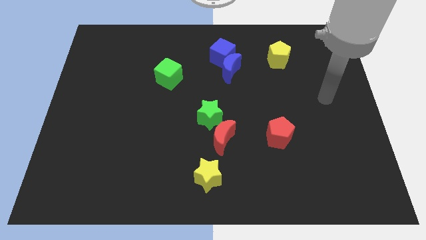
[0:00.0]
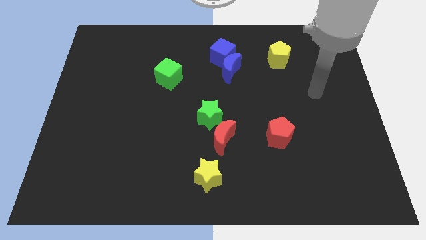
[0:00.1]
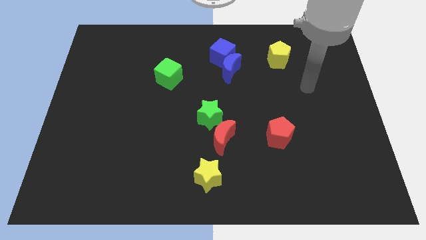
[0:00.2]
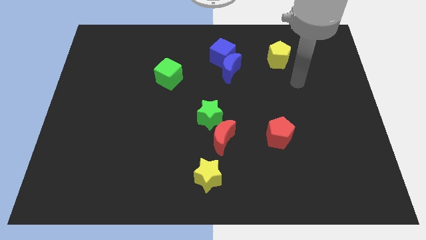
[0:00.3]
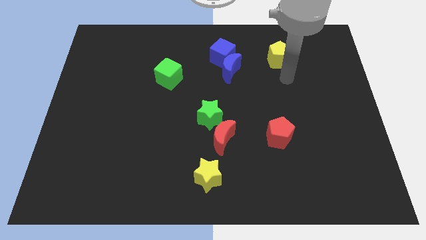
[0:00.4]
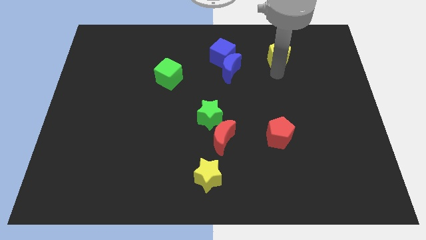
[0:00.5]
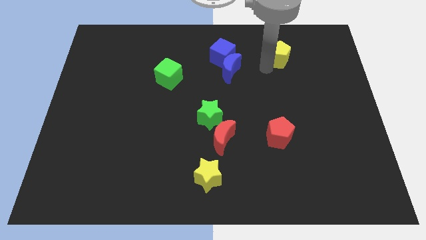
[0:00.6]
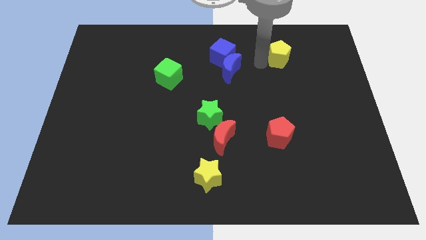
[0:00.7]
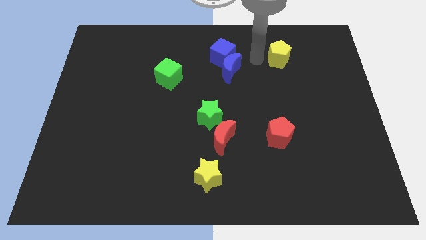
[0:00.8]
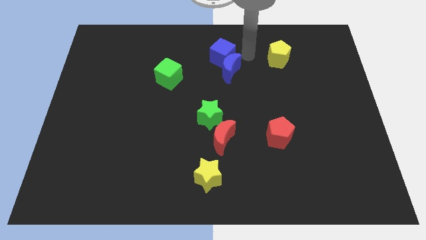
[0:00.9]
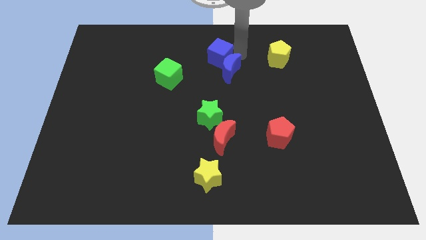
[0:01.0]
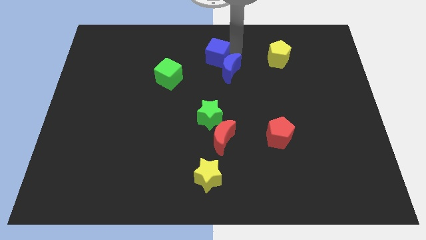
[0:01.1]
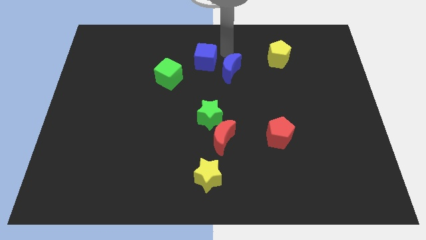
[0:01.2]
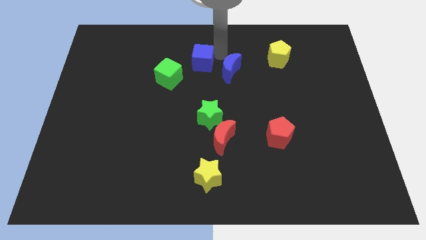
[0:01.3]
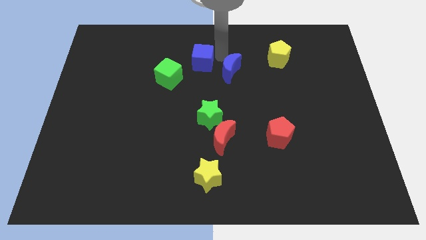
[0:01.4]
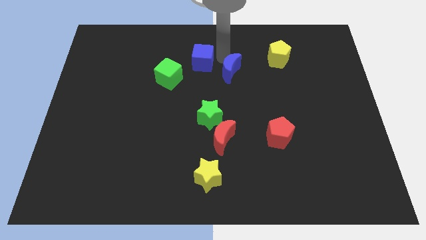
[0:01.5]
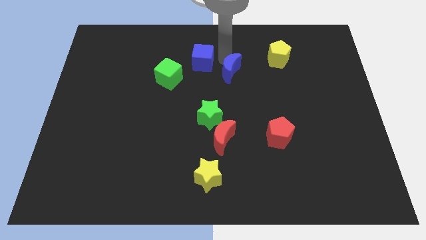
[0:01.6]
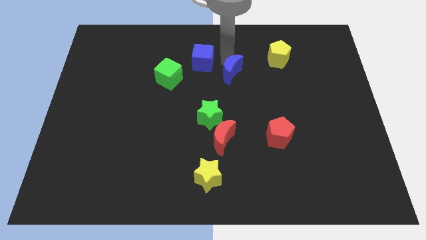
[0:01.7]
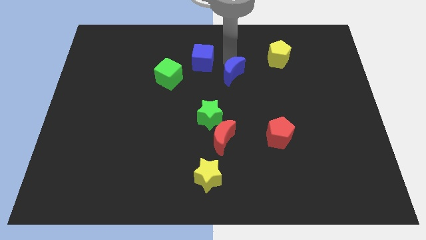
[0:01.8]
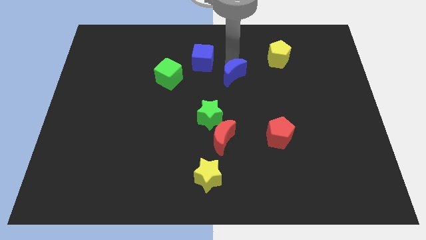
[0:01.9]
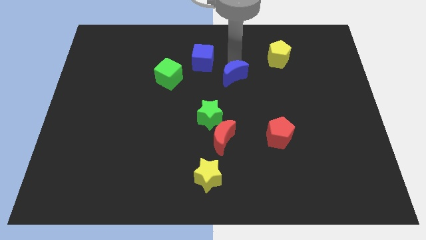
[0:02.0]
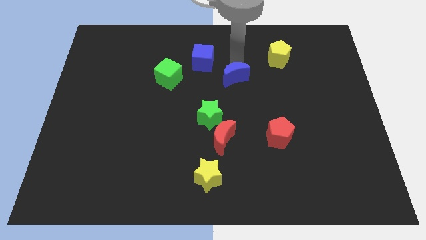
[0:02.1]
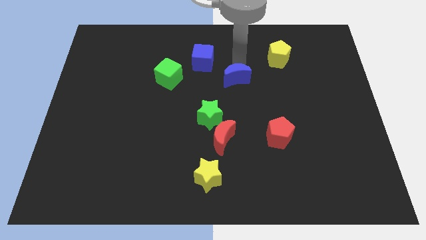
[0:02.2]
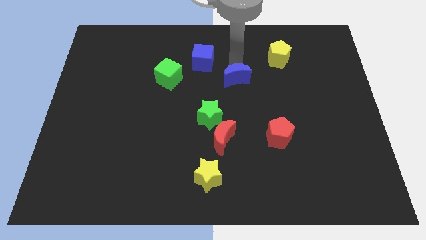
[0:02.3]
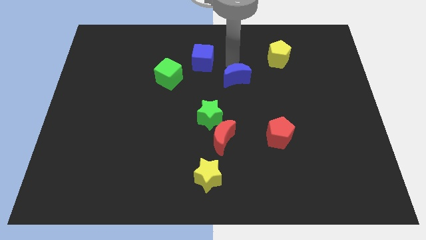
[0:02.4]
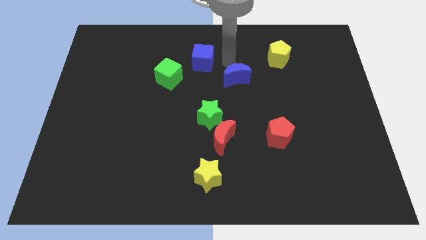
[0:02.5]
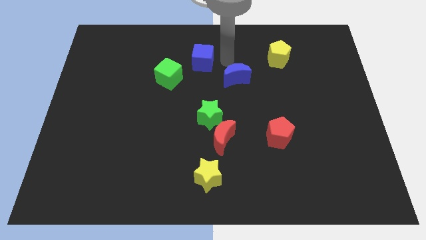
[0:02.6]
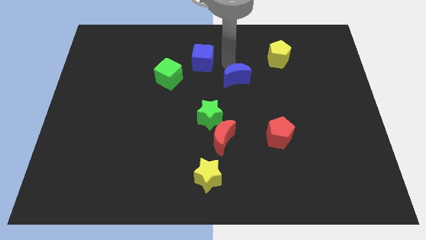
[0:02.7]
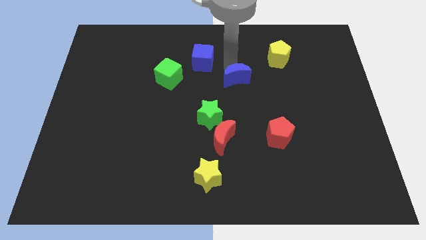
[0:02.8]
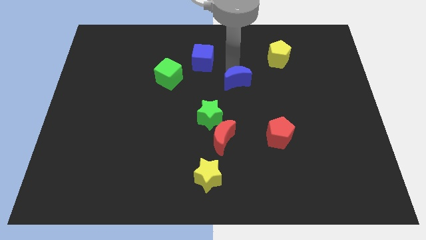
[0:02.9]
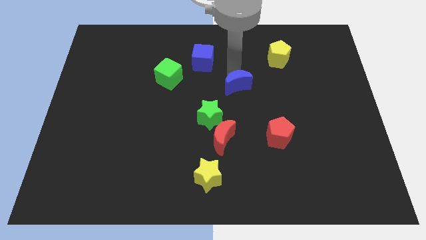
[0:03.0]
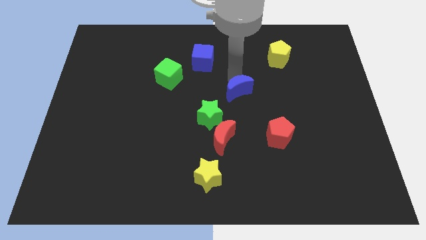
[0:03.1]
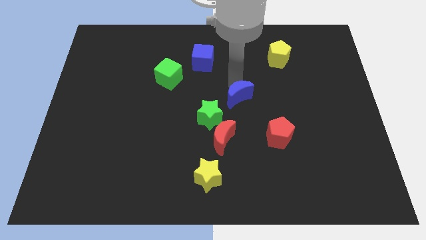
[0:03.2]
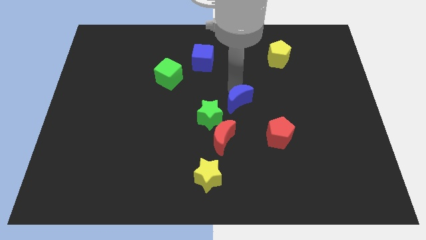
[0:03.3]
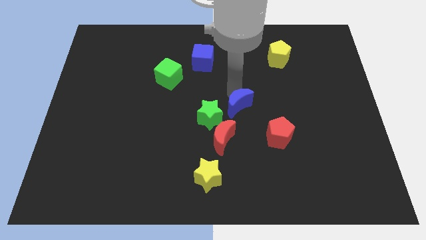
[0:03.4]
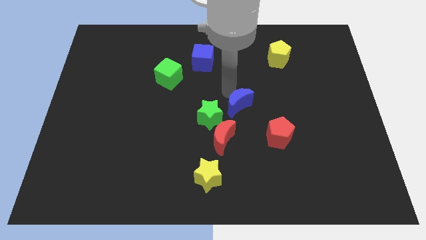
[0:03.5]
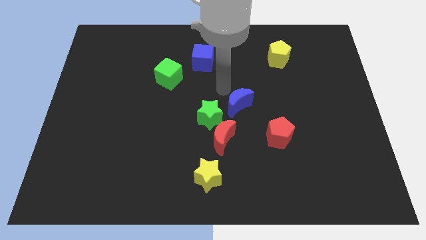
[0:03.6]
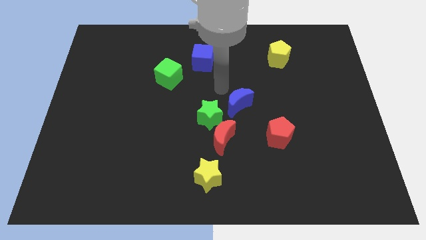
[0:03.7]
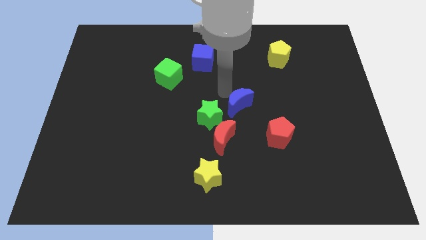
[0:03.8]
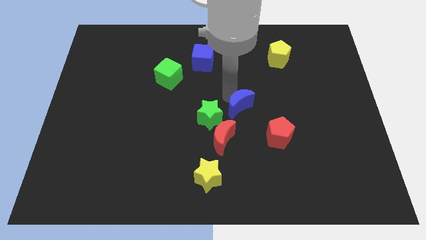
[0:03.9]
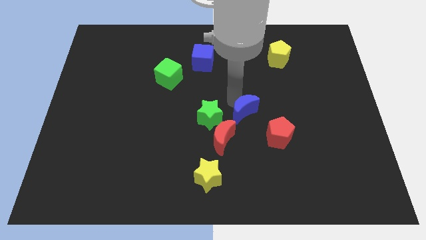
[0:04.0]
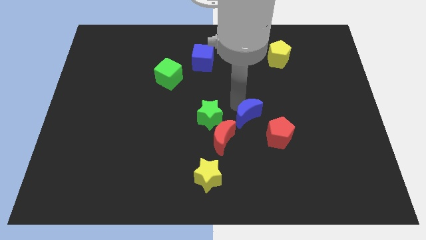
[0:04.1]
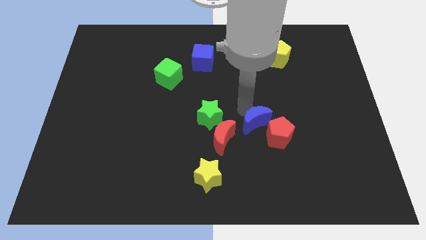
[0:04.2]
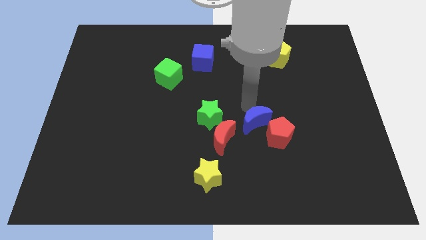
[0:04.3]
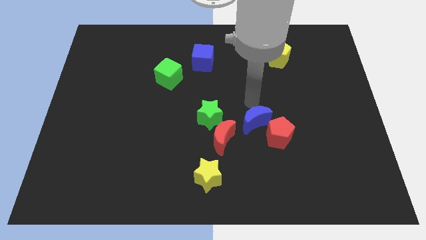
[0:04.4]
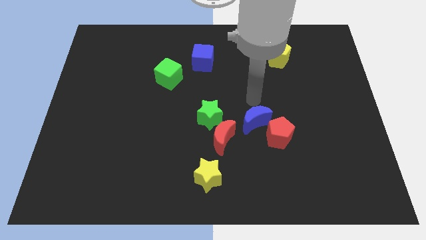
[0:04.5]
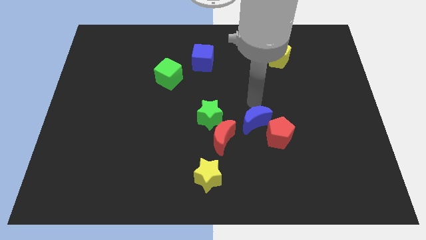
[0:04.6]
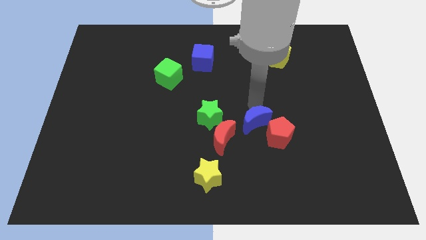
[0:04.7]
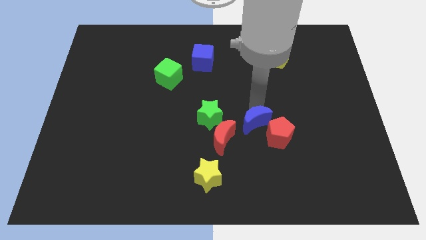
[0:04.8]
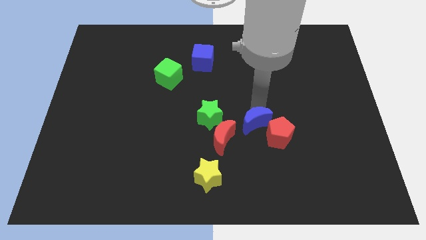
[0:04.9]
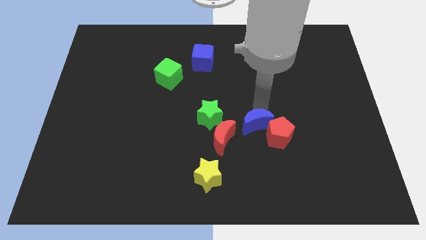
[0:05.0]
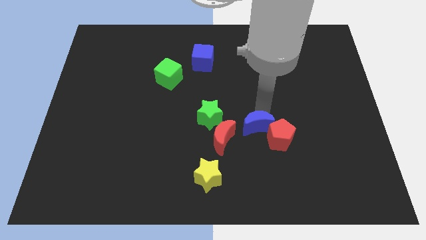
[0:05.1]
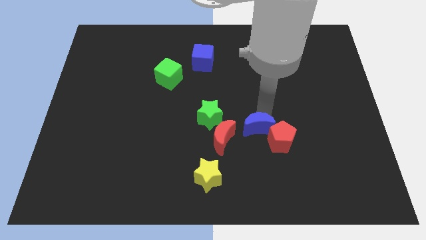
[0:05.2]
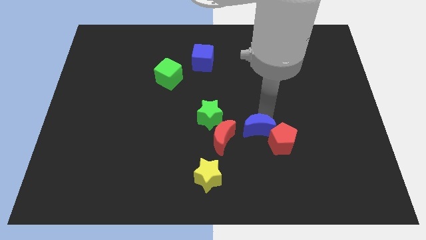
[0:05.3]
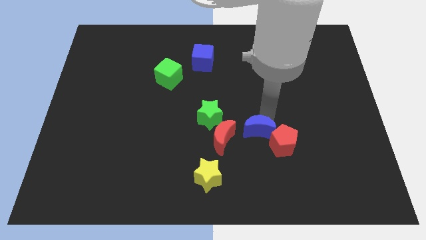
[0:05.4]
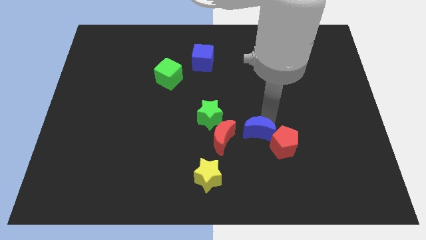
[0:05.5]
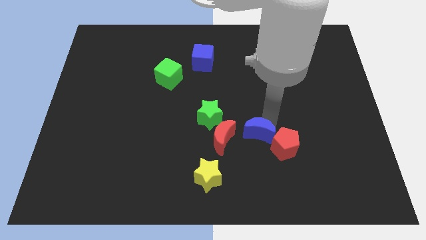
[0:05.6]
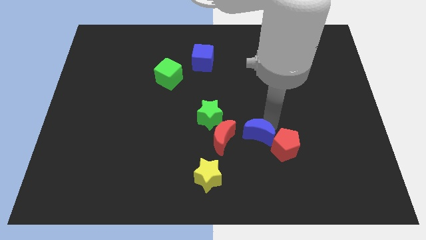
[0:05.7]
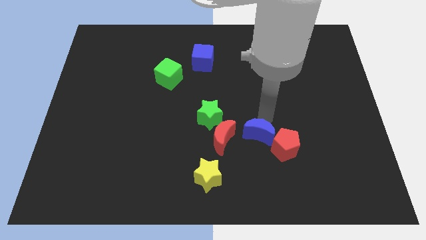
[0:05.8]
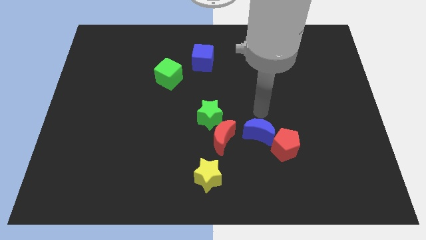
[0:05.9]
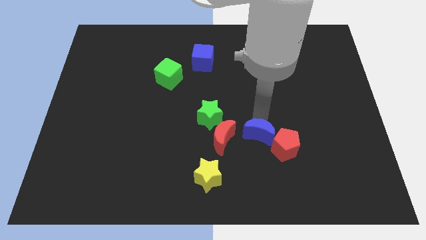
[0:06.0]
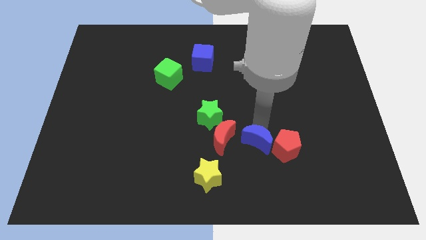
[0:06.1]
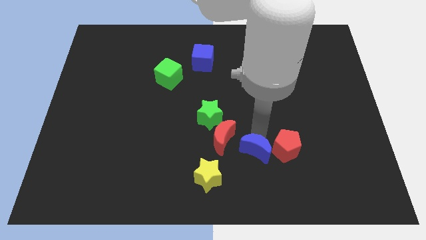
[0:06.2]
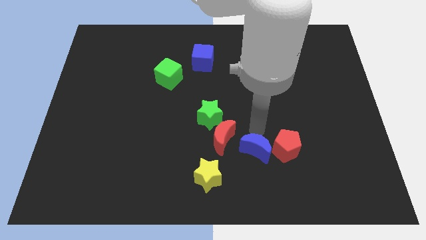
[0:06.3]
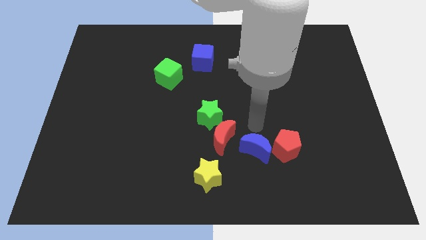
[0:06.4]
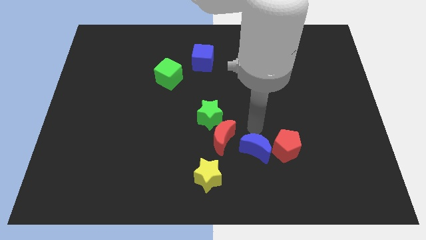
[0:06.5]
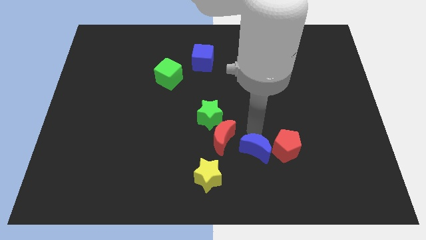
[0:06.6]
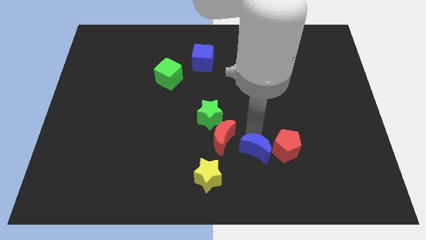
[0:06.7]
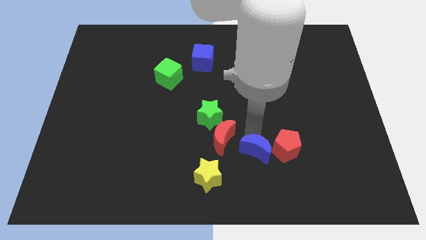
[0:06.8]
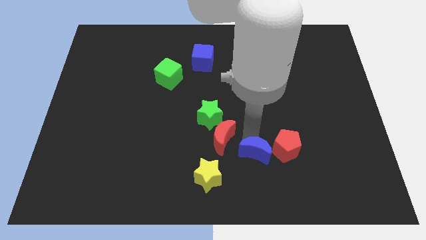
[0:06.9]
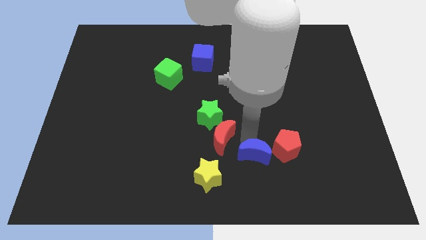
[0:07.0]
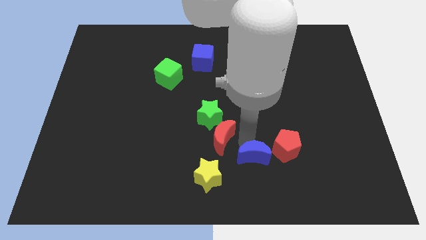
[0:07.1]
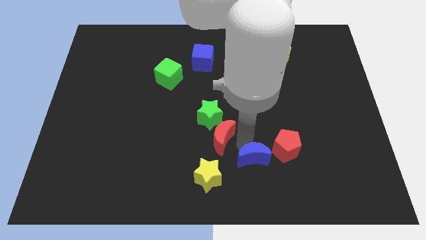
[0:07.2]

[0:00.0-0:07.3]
put the blue moon right of the yellow star
